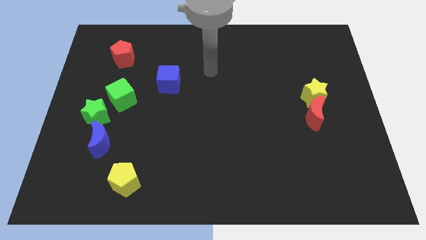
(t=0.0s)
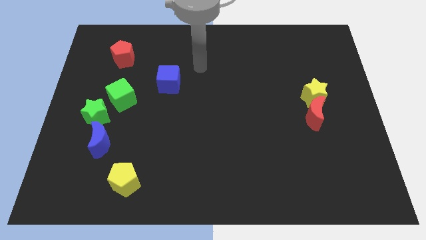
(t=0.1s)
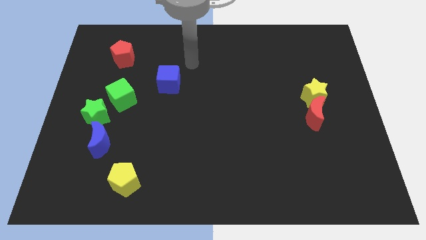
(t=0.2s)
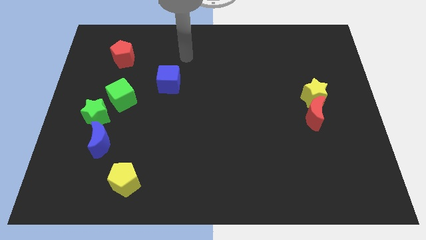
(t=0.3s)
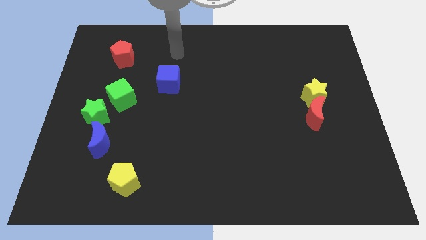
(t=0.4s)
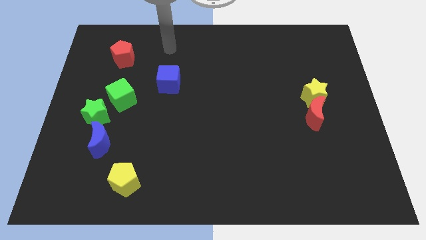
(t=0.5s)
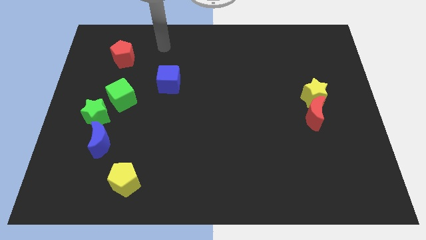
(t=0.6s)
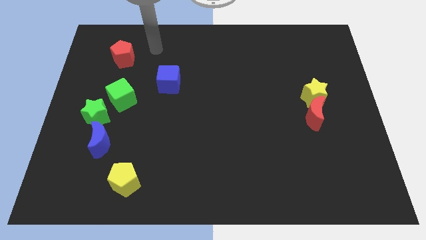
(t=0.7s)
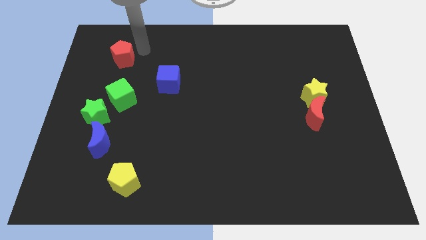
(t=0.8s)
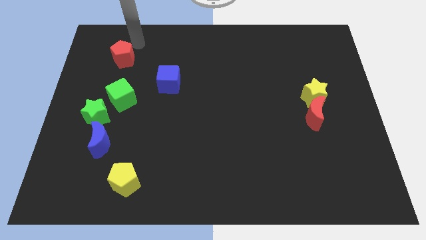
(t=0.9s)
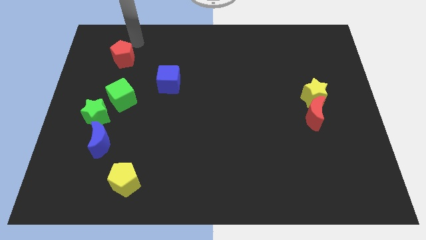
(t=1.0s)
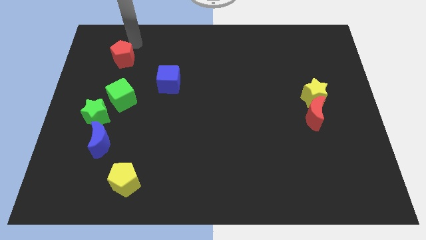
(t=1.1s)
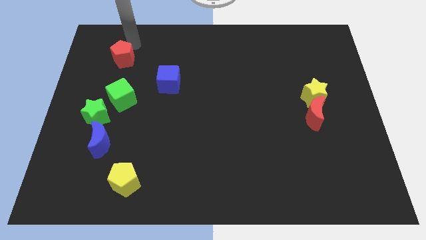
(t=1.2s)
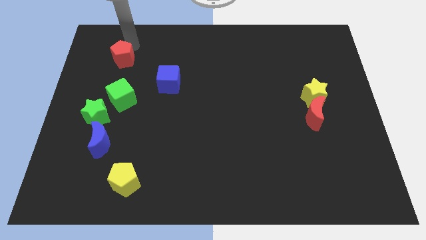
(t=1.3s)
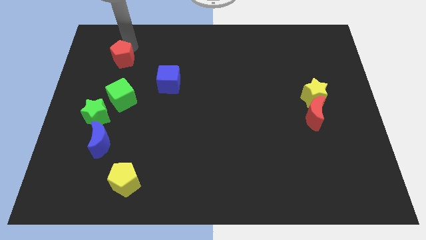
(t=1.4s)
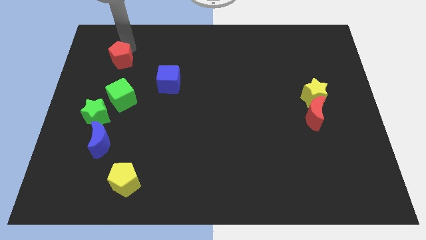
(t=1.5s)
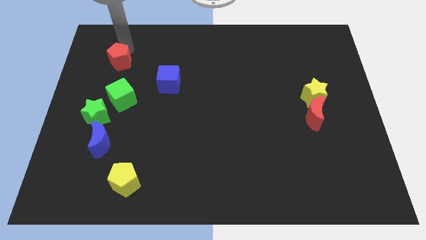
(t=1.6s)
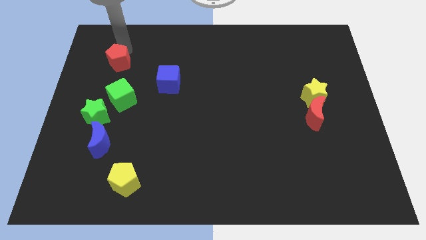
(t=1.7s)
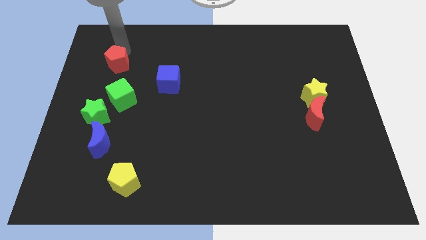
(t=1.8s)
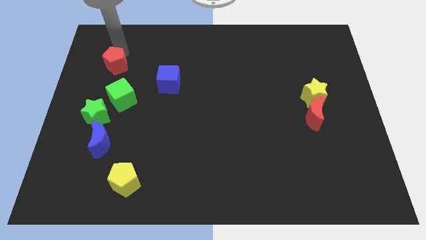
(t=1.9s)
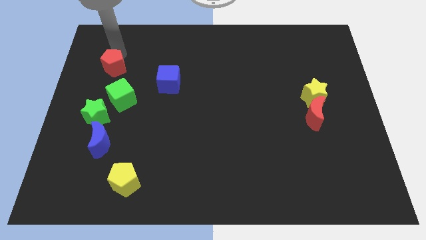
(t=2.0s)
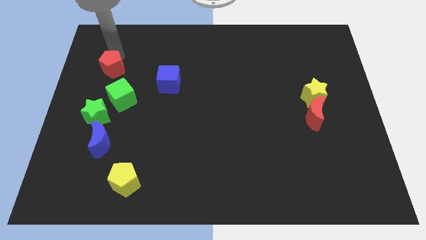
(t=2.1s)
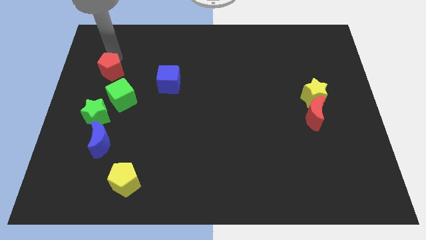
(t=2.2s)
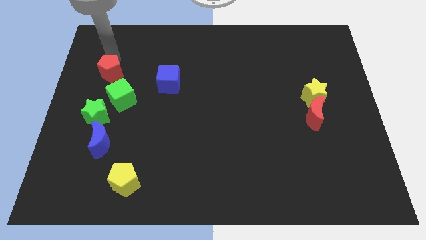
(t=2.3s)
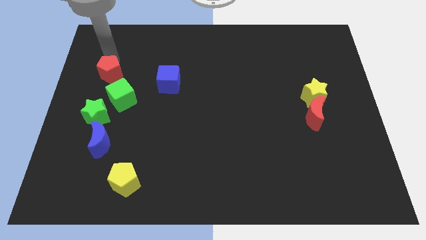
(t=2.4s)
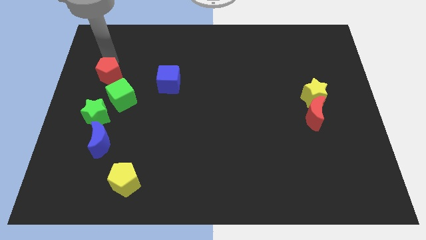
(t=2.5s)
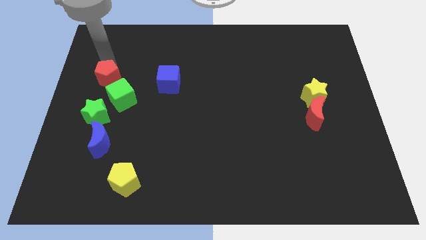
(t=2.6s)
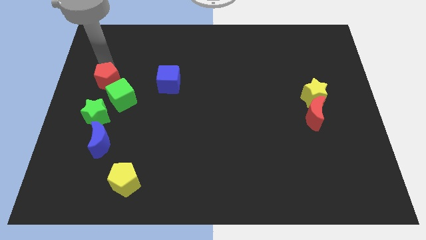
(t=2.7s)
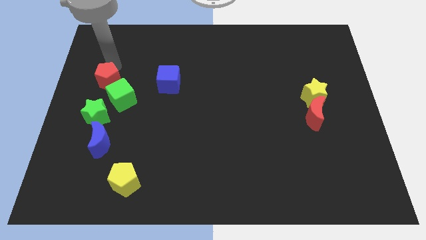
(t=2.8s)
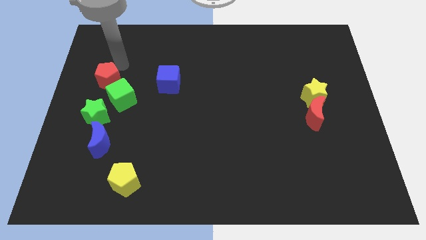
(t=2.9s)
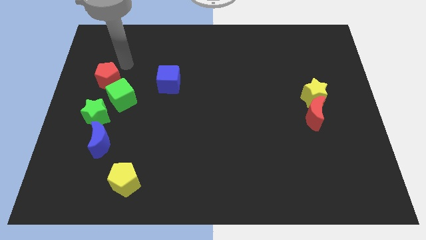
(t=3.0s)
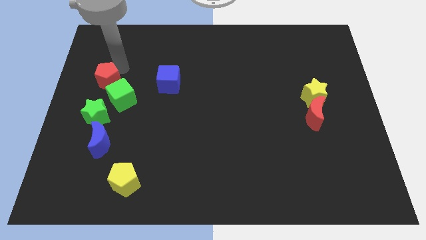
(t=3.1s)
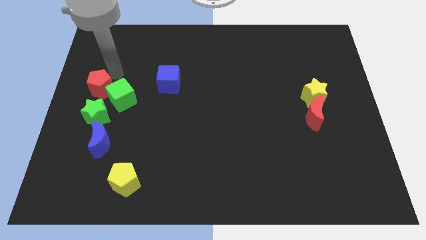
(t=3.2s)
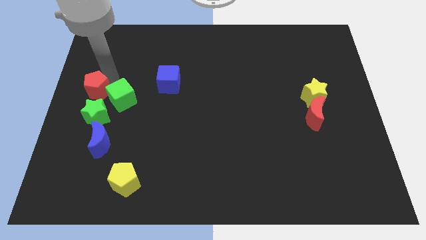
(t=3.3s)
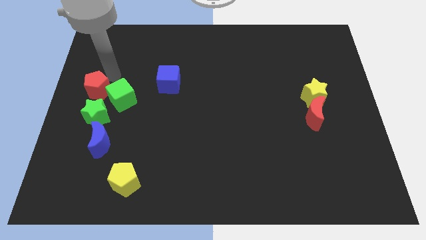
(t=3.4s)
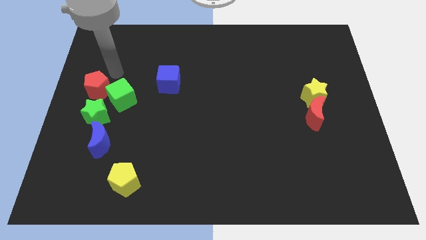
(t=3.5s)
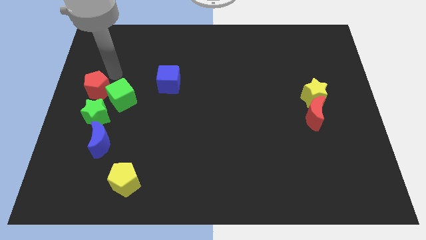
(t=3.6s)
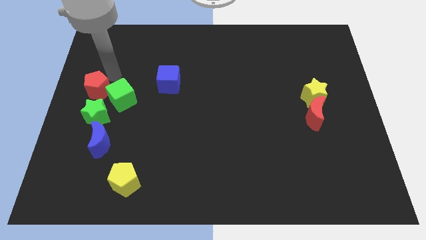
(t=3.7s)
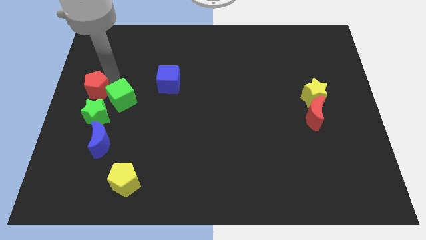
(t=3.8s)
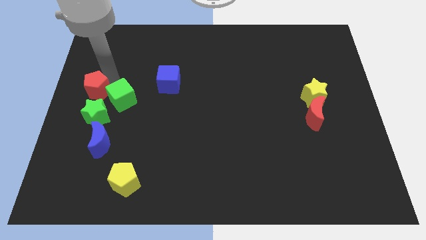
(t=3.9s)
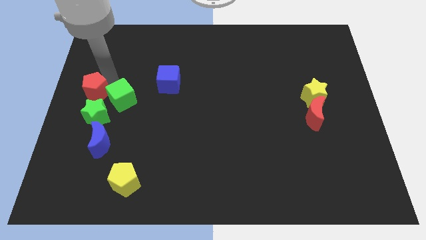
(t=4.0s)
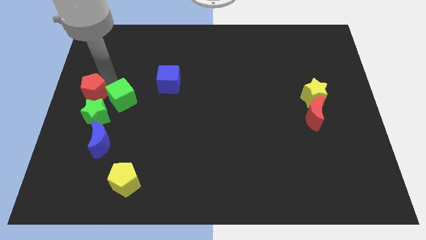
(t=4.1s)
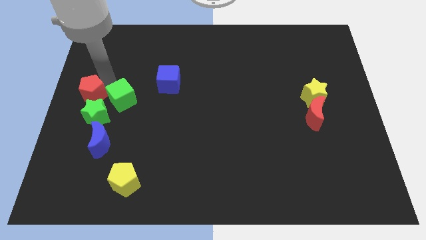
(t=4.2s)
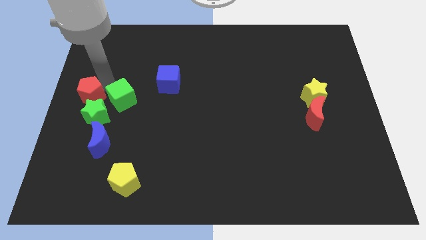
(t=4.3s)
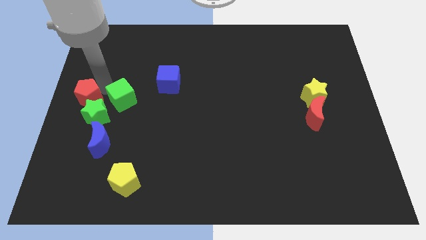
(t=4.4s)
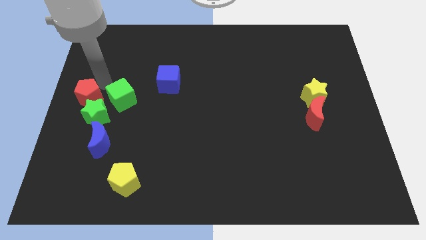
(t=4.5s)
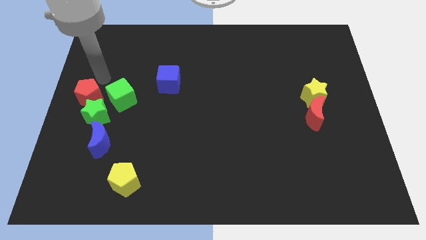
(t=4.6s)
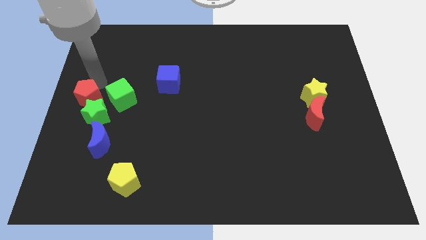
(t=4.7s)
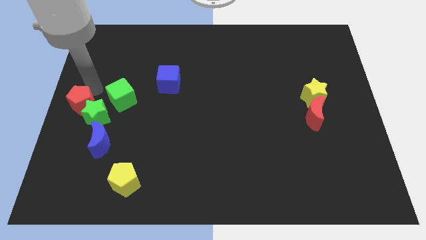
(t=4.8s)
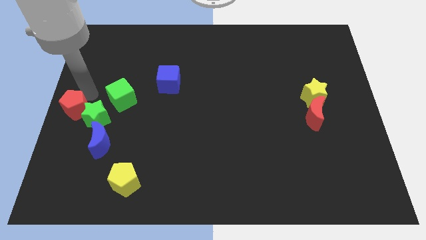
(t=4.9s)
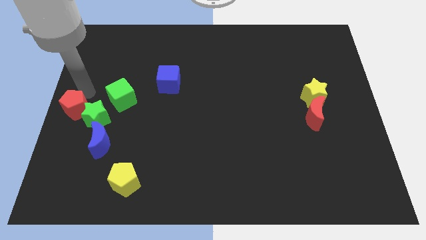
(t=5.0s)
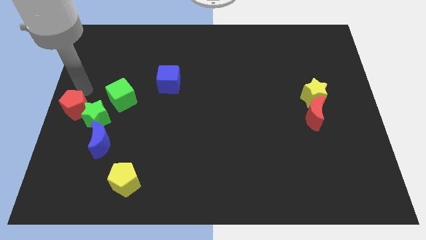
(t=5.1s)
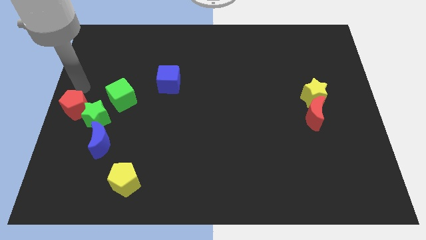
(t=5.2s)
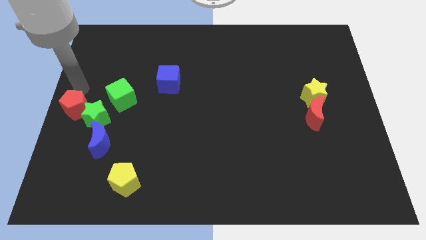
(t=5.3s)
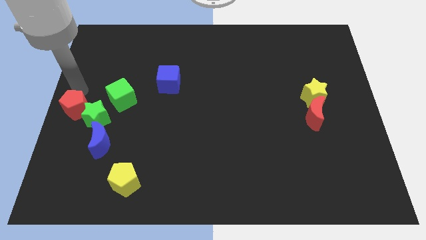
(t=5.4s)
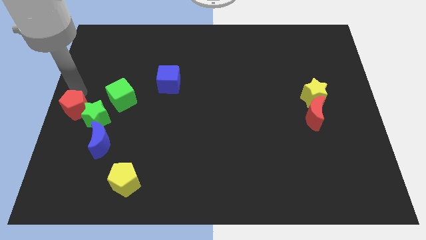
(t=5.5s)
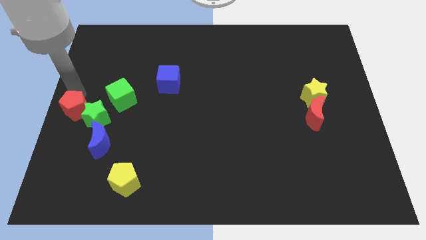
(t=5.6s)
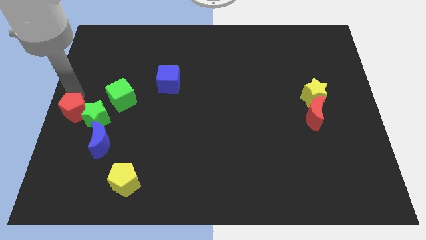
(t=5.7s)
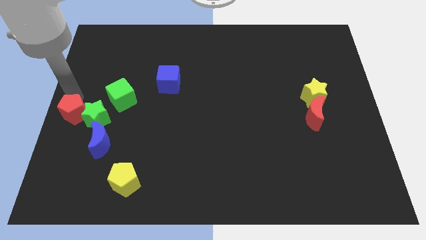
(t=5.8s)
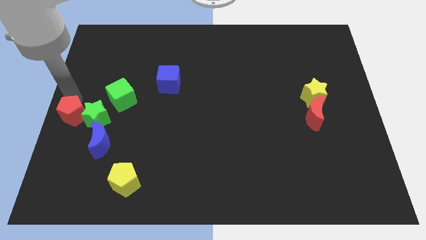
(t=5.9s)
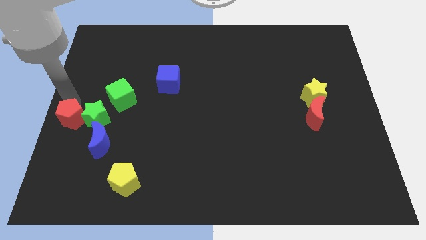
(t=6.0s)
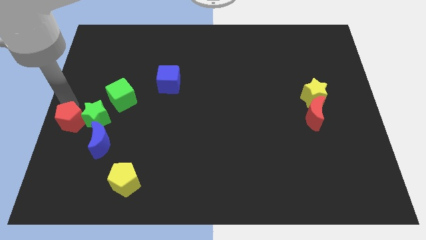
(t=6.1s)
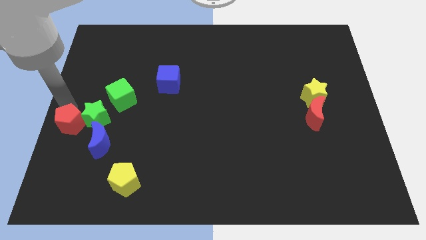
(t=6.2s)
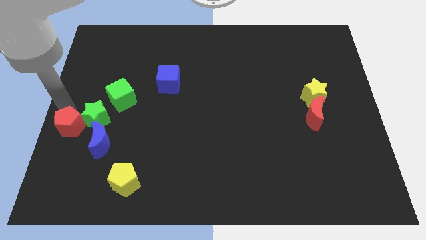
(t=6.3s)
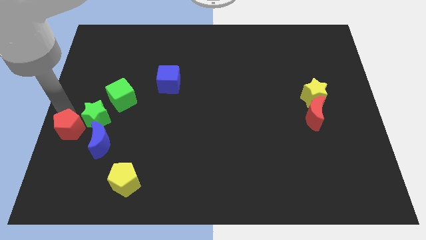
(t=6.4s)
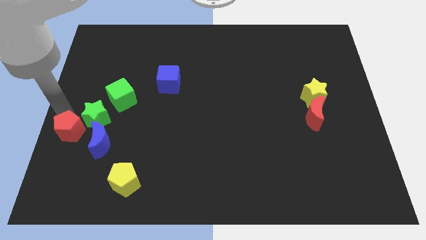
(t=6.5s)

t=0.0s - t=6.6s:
push the red pentagon down

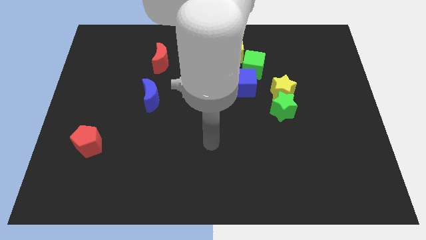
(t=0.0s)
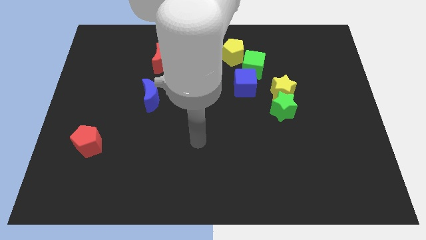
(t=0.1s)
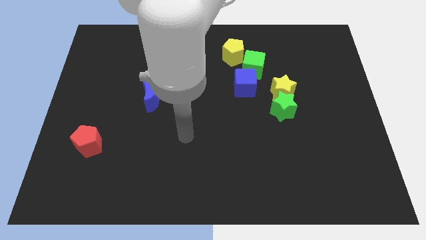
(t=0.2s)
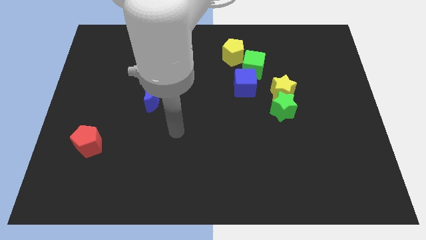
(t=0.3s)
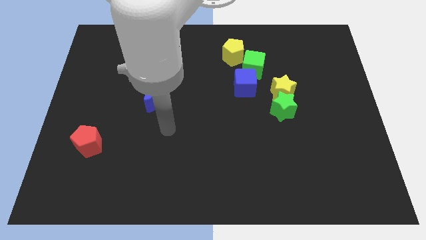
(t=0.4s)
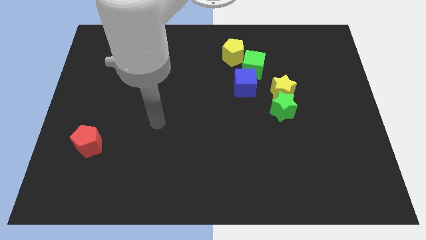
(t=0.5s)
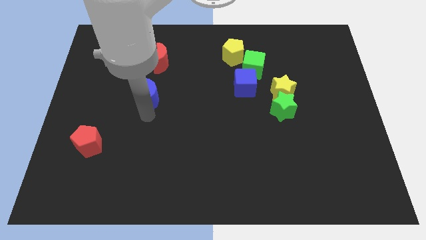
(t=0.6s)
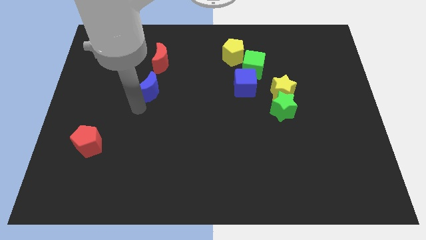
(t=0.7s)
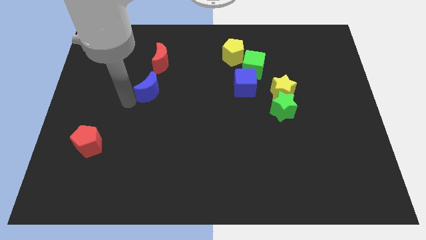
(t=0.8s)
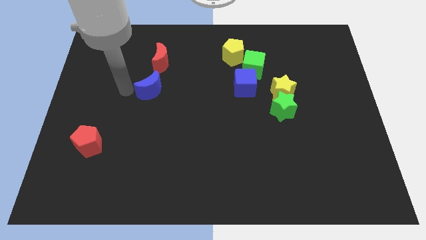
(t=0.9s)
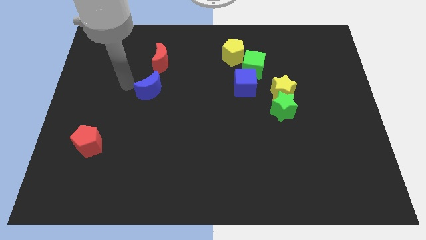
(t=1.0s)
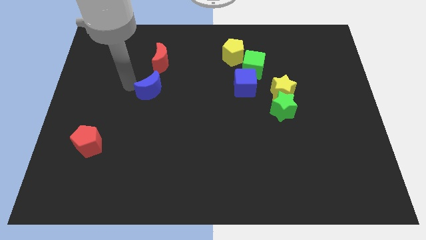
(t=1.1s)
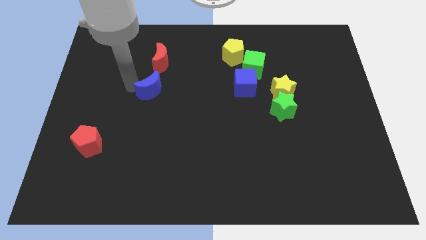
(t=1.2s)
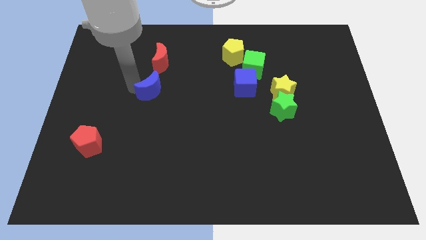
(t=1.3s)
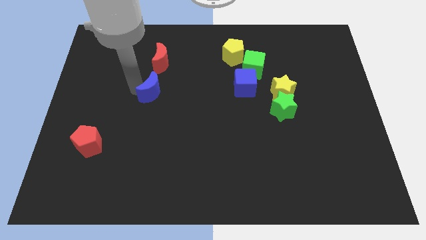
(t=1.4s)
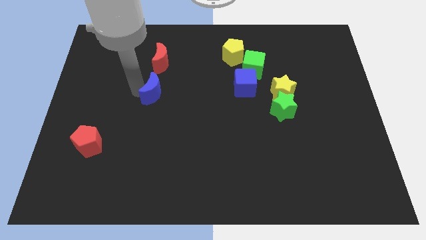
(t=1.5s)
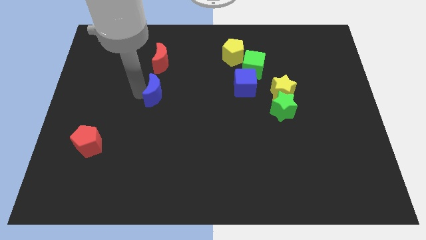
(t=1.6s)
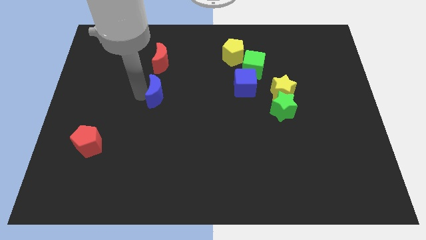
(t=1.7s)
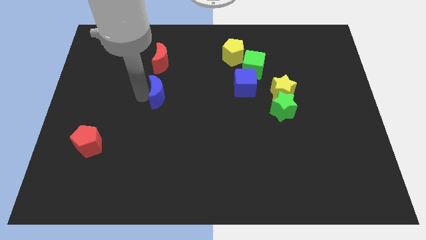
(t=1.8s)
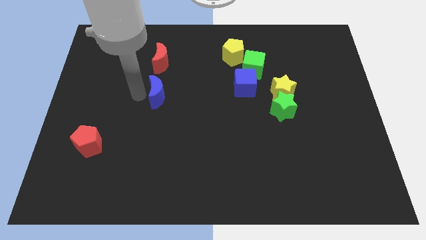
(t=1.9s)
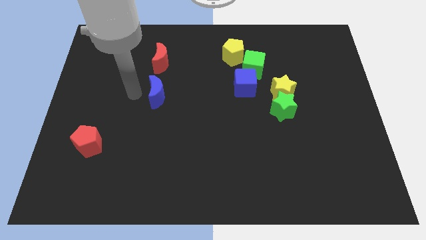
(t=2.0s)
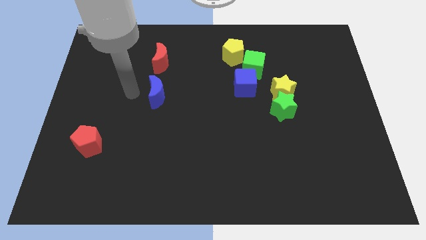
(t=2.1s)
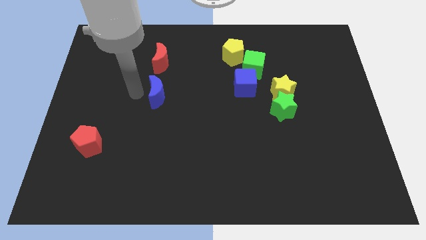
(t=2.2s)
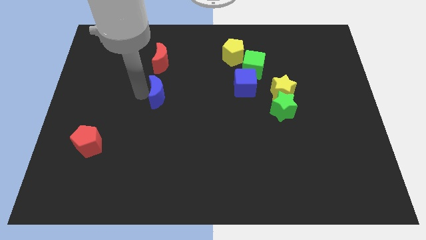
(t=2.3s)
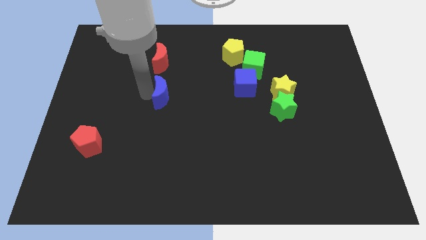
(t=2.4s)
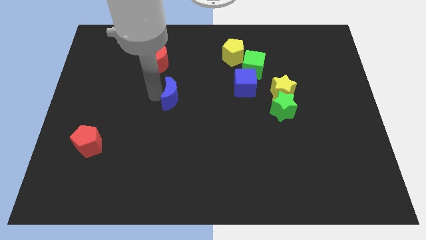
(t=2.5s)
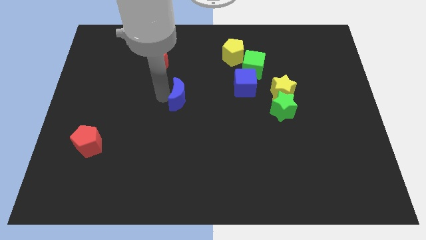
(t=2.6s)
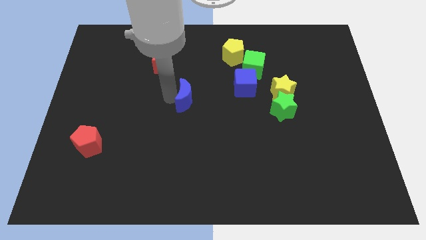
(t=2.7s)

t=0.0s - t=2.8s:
slightly push the blue moon to the right
